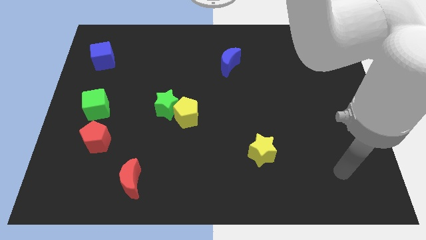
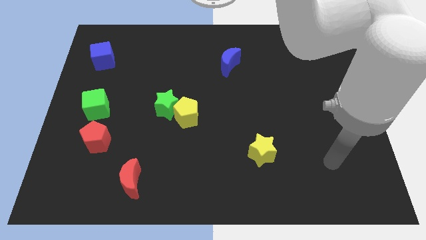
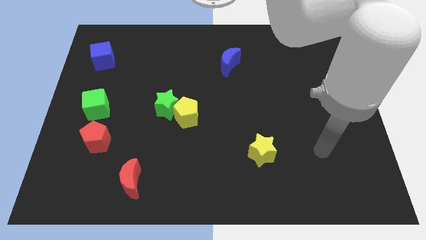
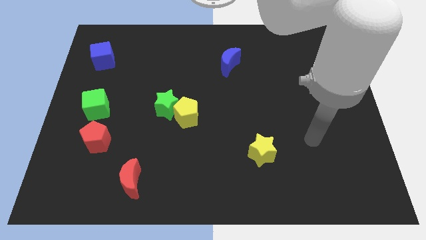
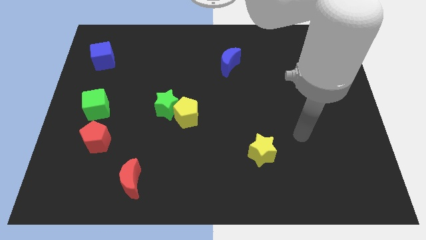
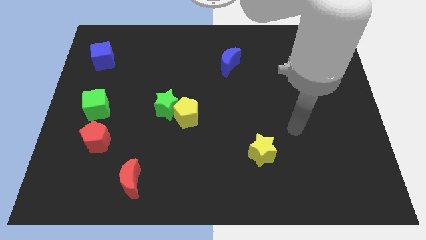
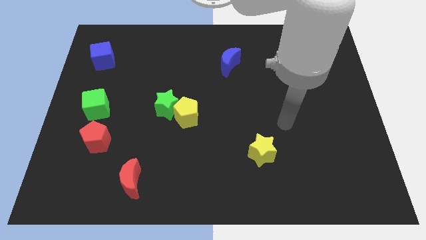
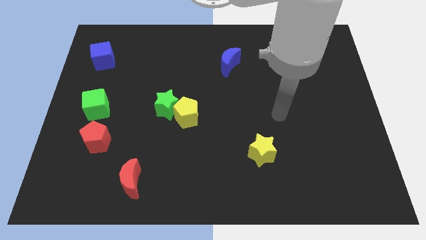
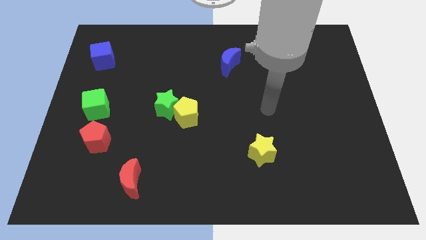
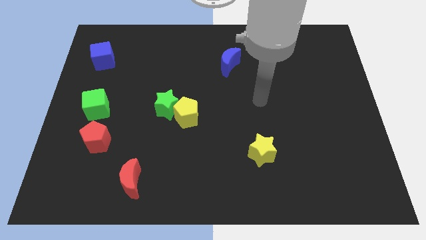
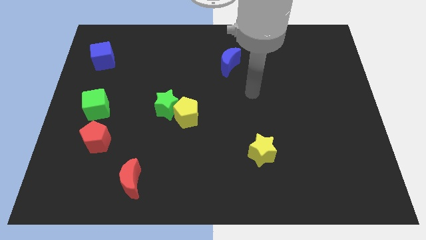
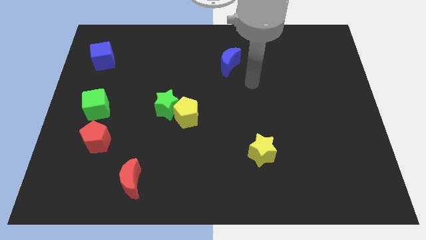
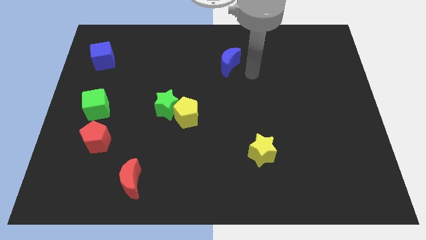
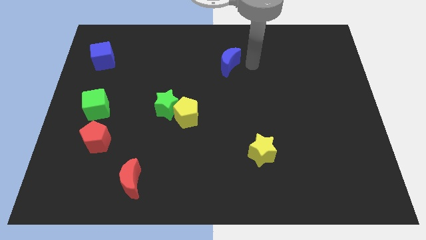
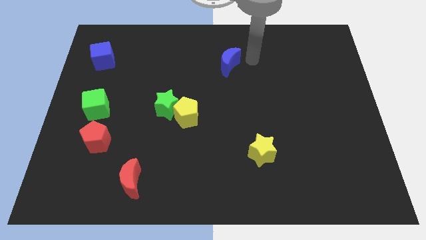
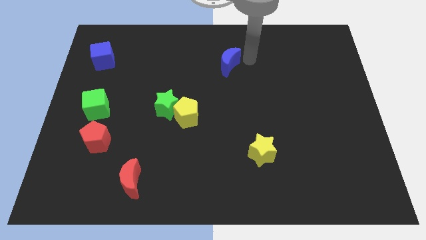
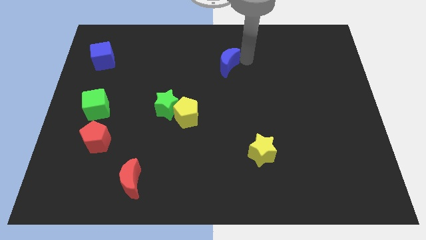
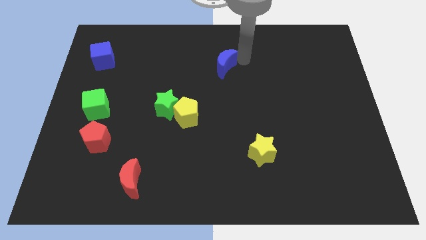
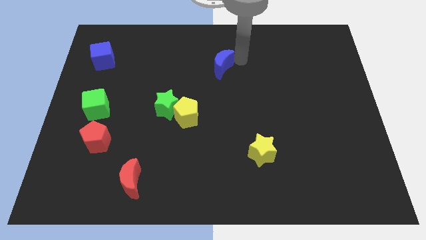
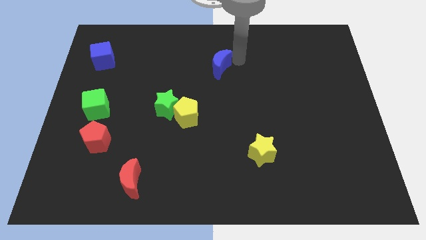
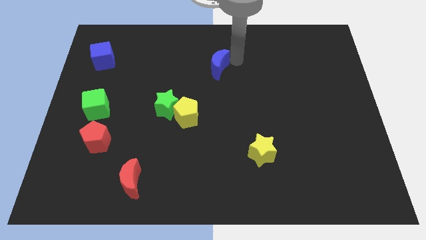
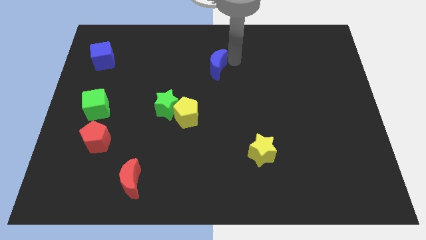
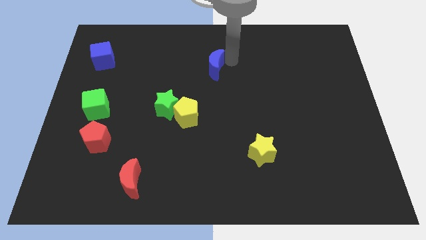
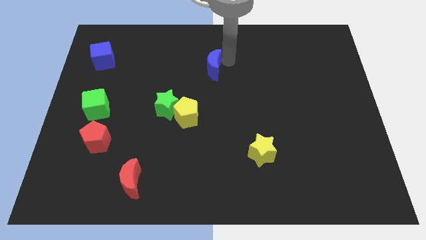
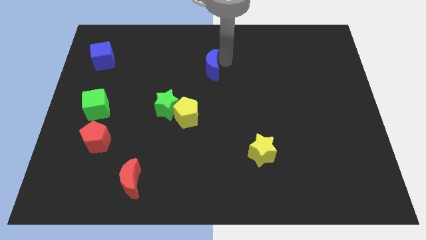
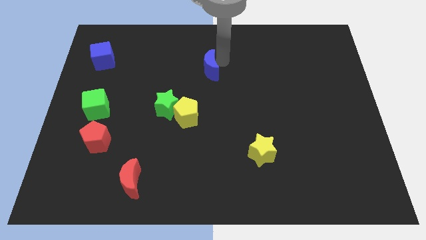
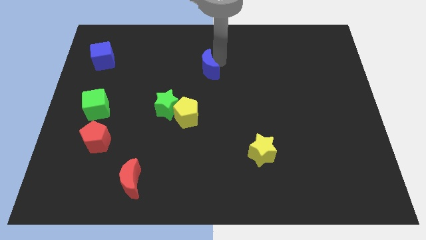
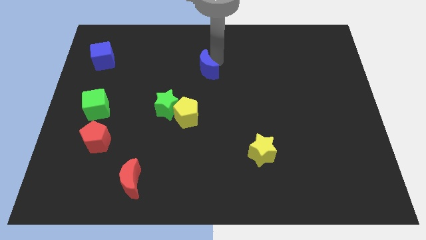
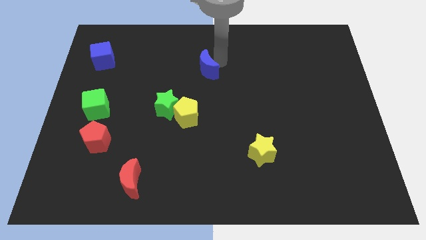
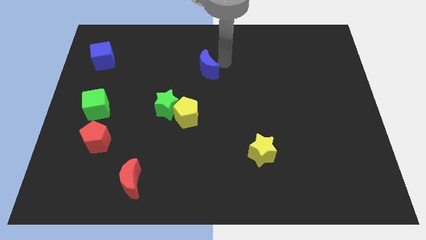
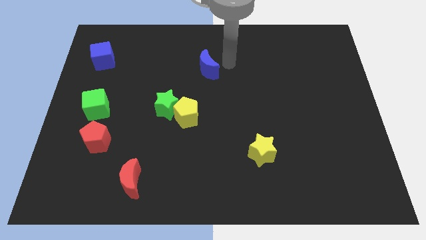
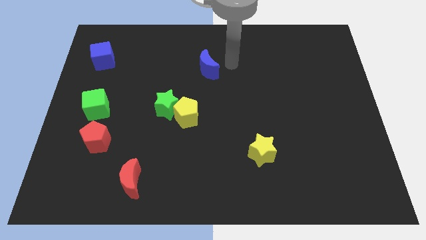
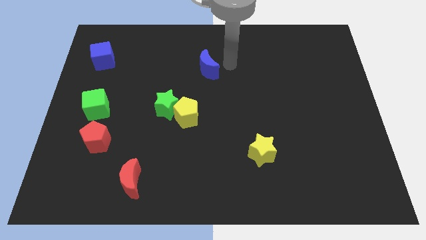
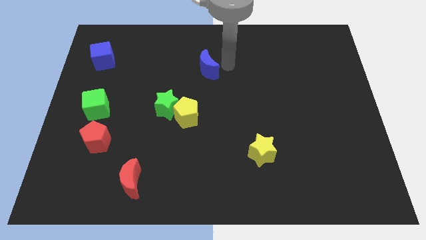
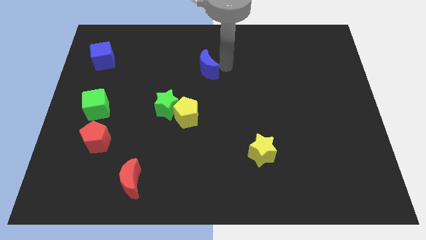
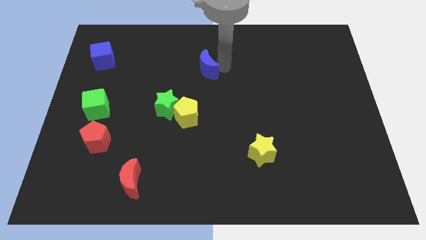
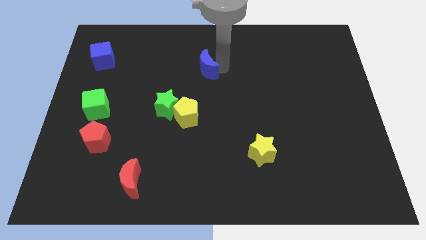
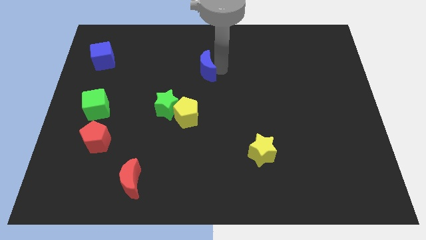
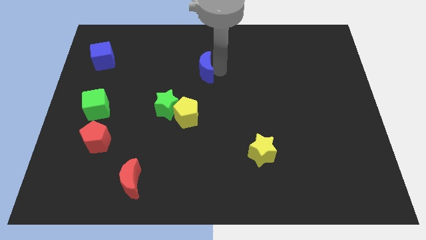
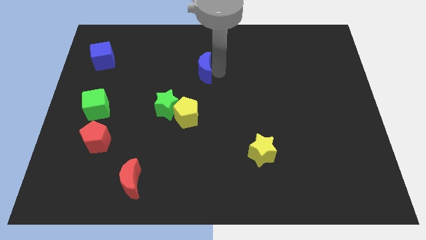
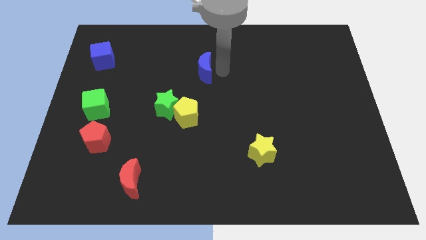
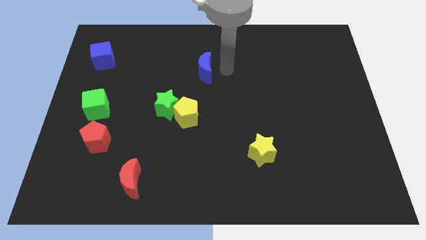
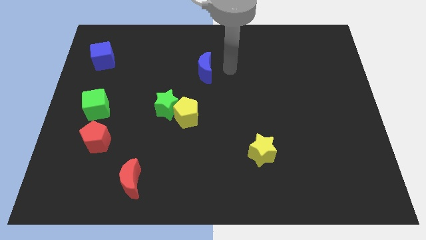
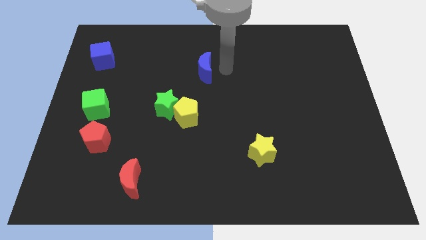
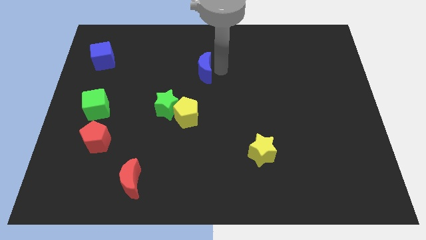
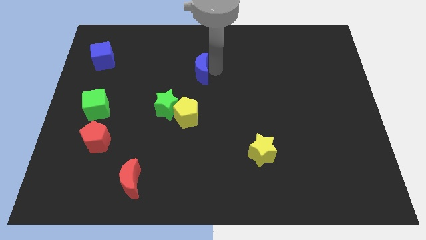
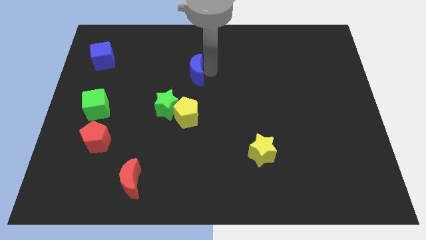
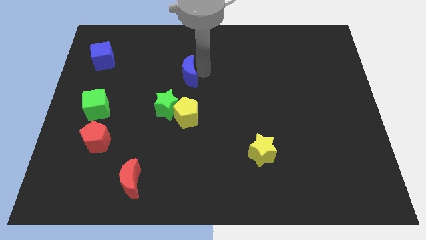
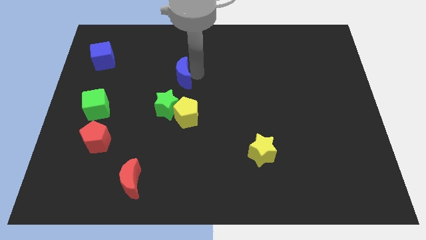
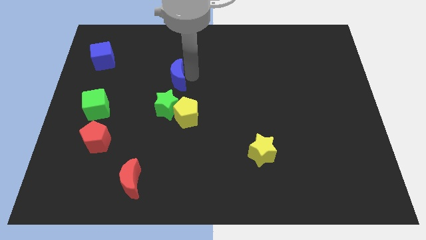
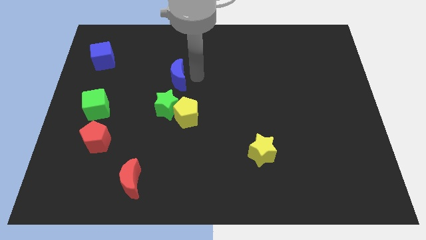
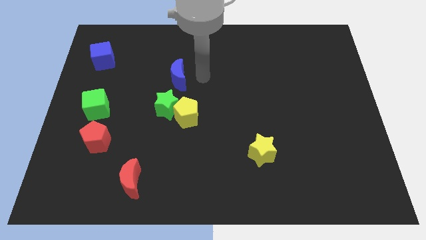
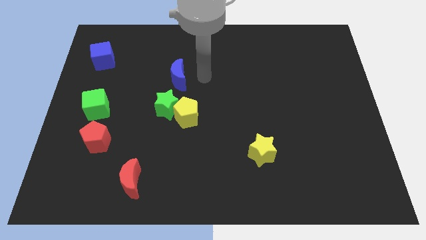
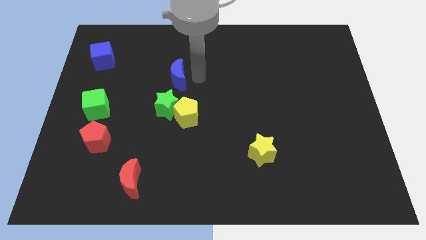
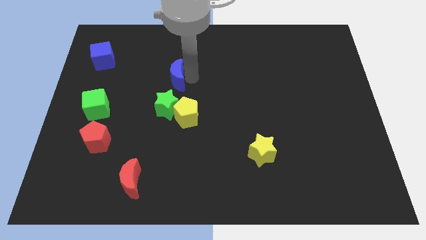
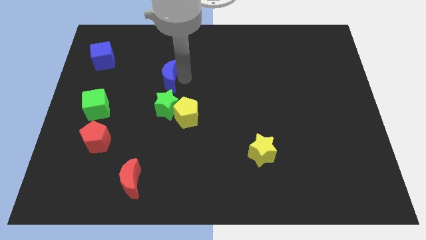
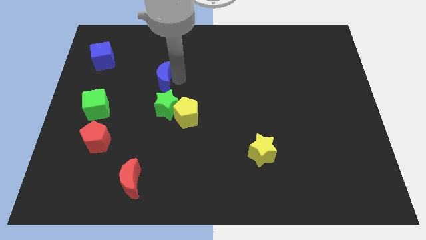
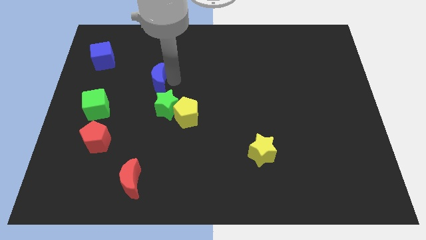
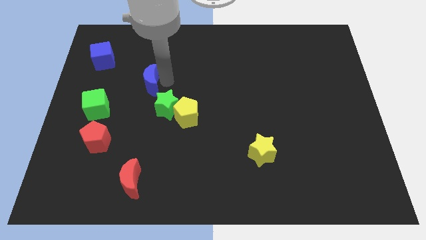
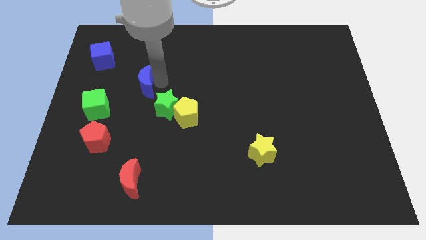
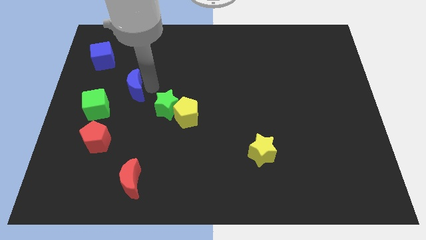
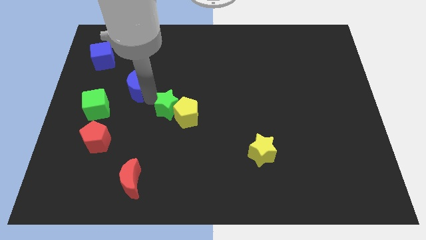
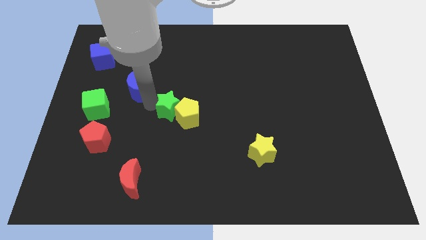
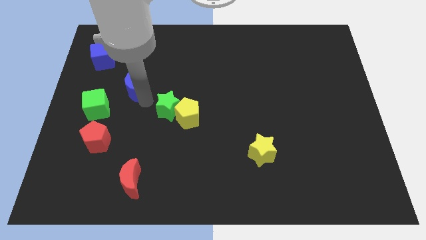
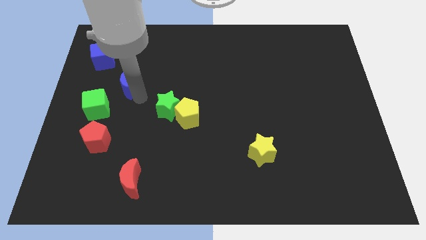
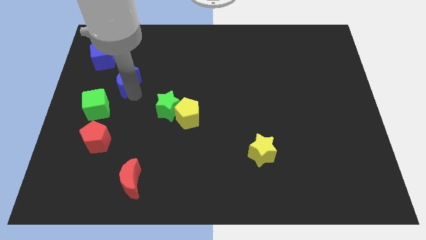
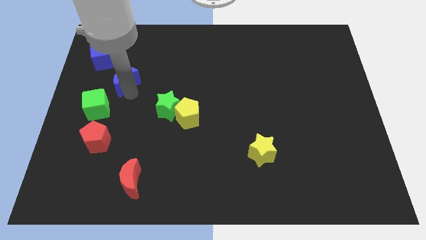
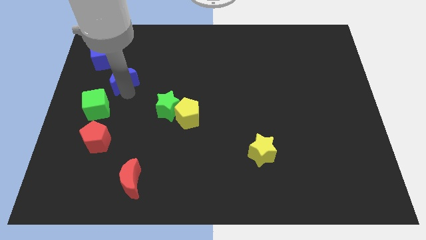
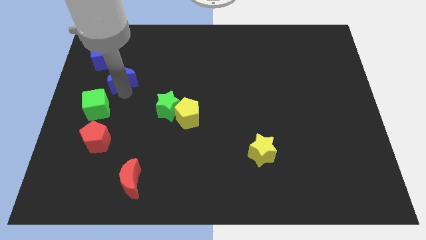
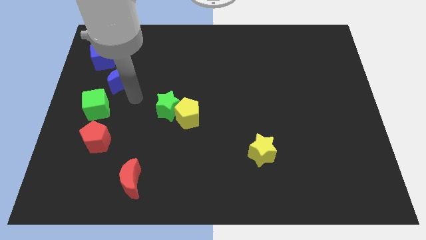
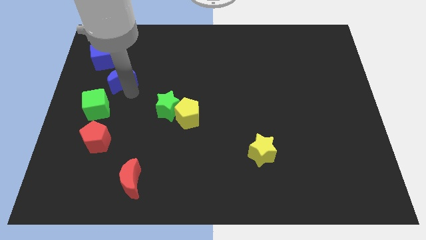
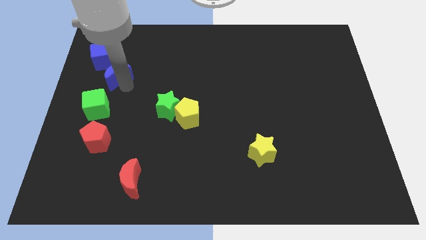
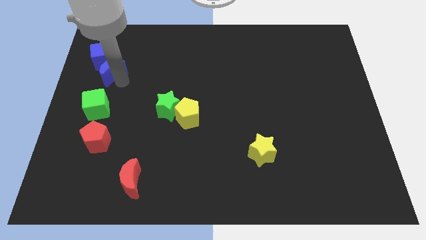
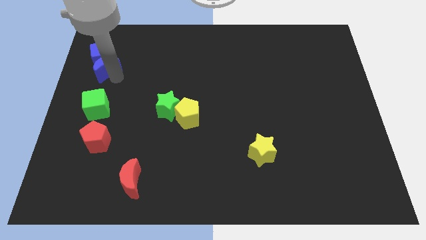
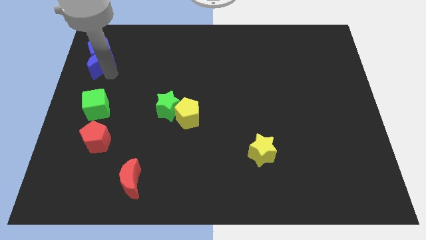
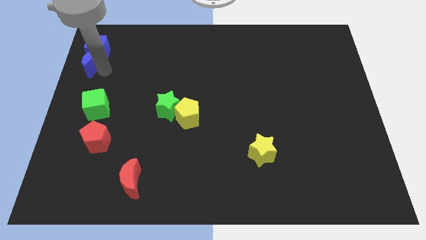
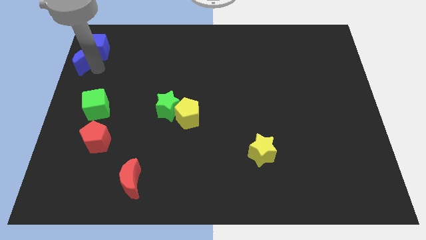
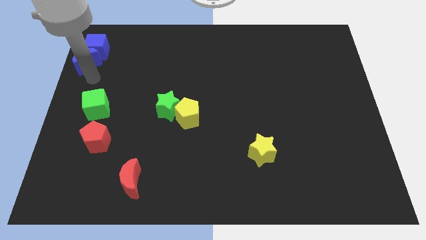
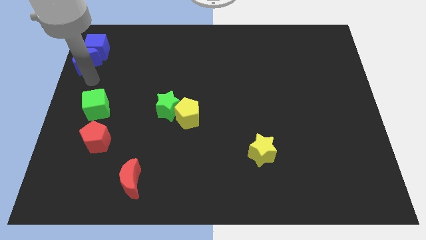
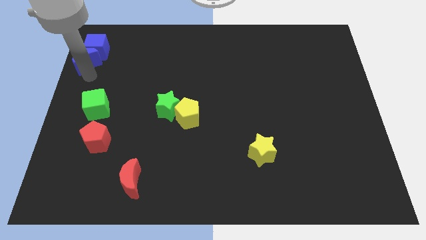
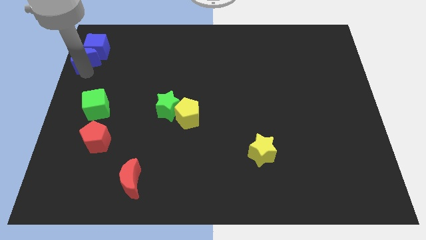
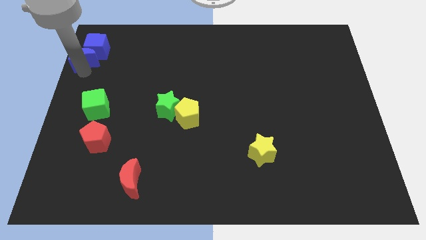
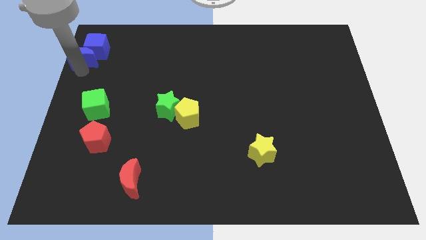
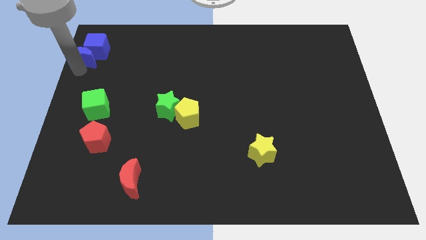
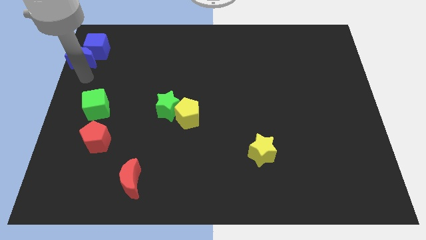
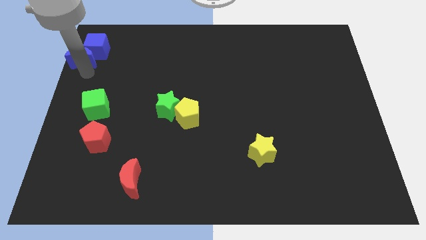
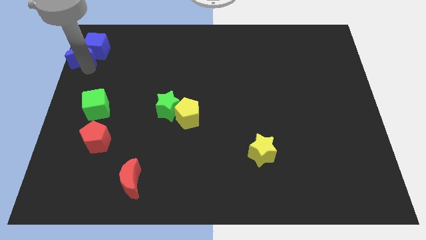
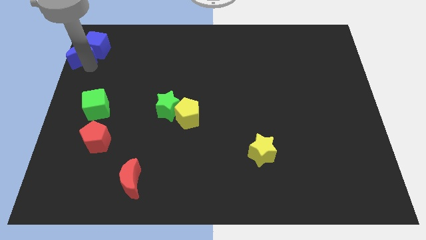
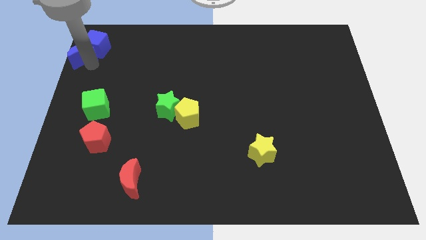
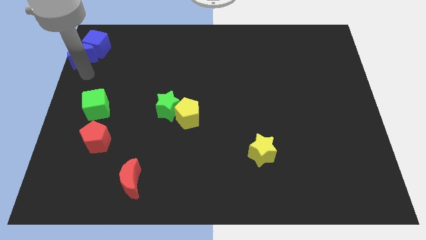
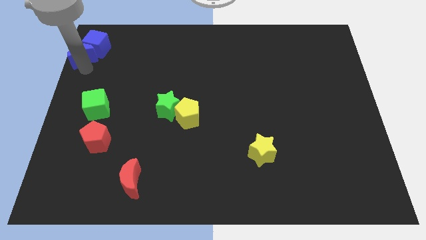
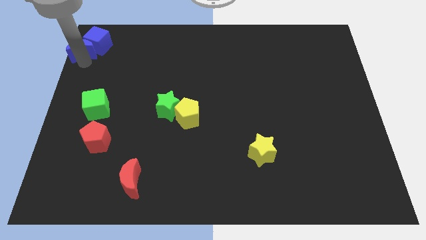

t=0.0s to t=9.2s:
move the blue moon to the upper left corner
